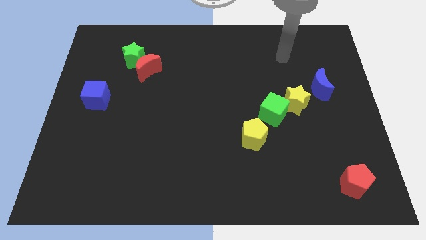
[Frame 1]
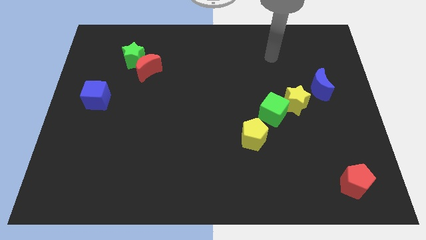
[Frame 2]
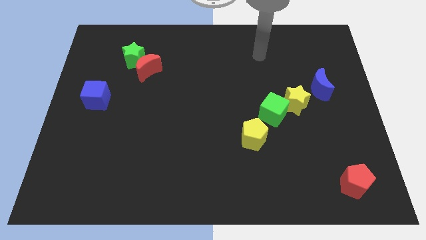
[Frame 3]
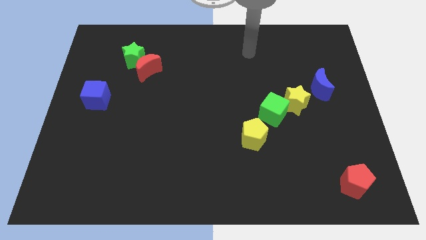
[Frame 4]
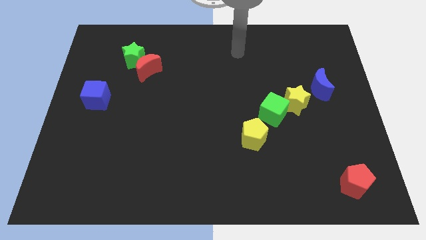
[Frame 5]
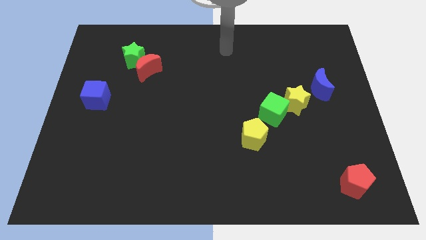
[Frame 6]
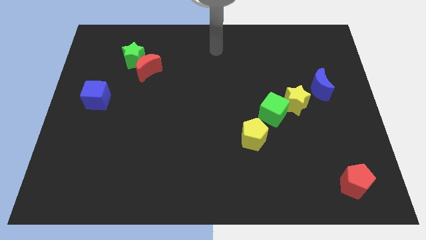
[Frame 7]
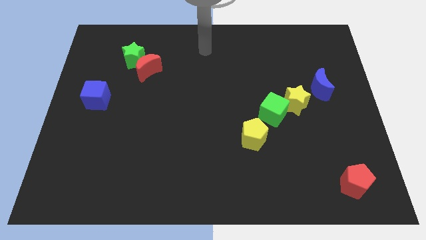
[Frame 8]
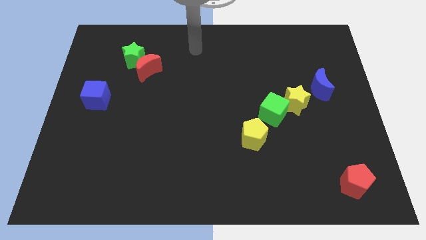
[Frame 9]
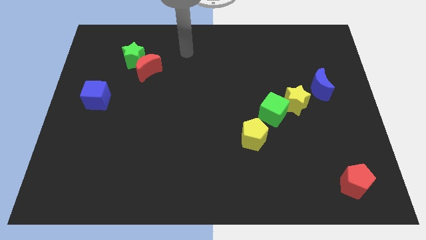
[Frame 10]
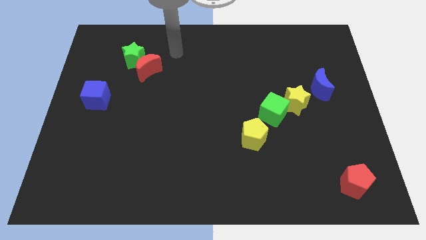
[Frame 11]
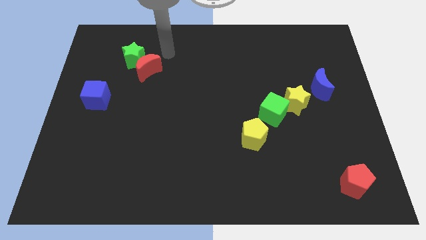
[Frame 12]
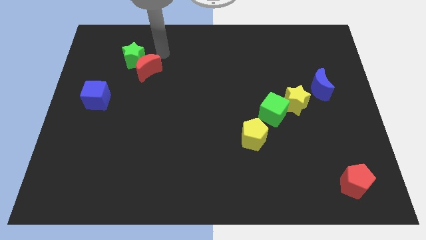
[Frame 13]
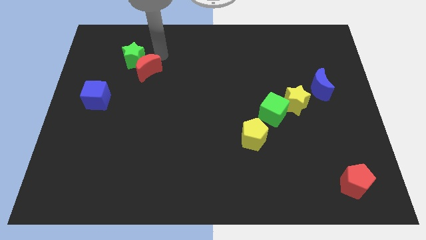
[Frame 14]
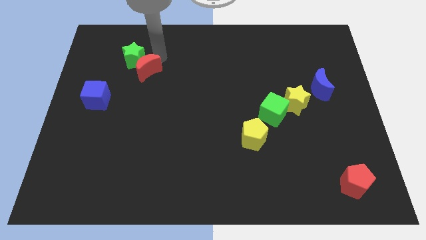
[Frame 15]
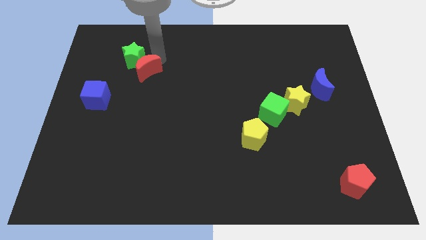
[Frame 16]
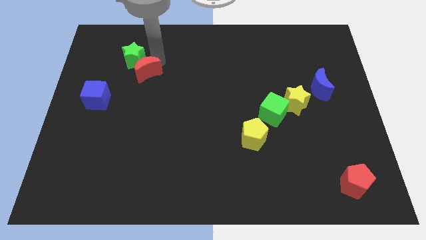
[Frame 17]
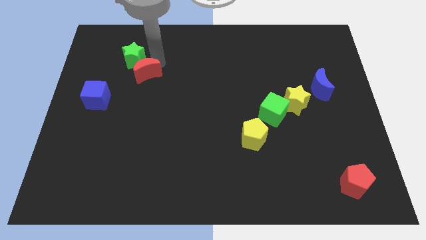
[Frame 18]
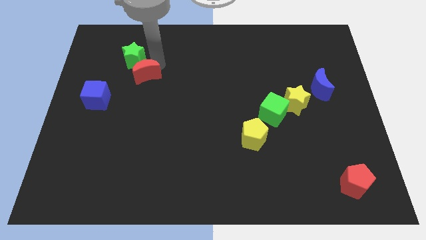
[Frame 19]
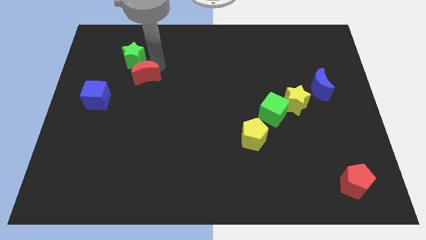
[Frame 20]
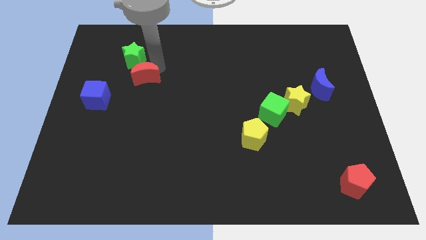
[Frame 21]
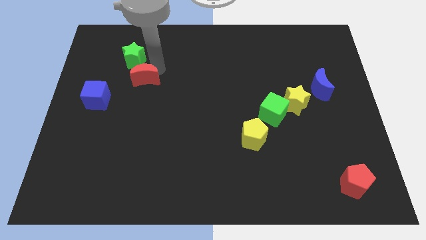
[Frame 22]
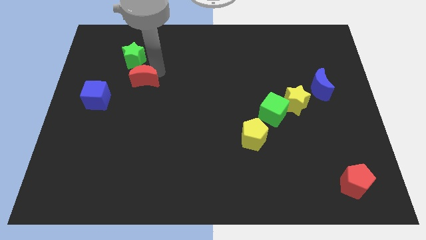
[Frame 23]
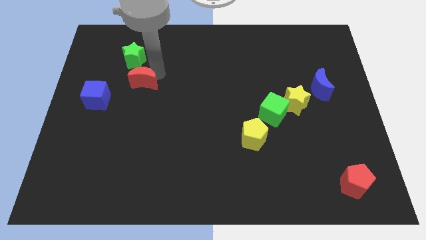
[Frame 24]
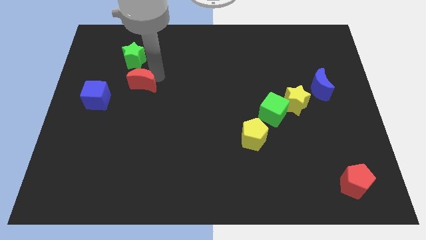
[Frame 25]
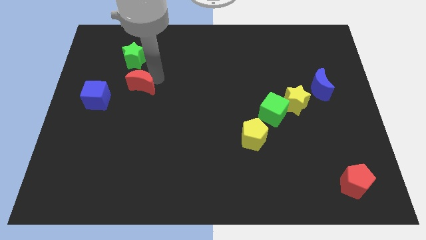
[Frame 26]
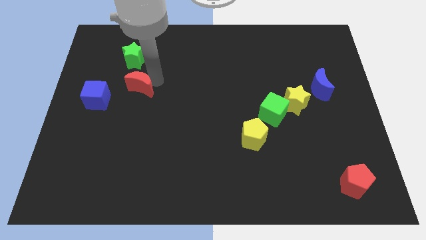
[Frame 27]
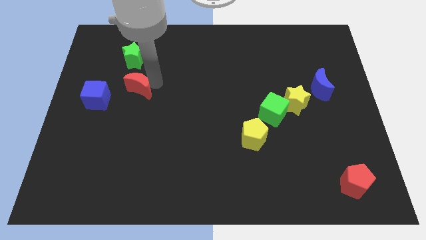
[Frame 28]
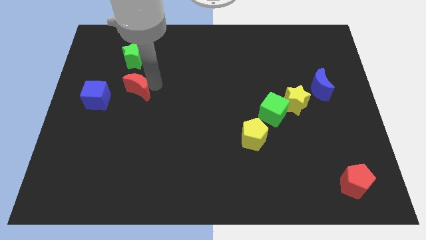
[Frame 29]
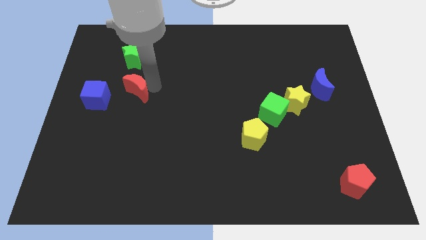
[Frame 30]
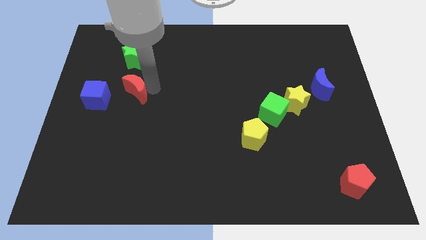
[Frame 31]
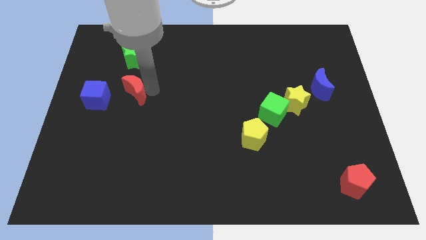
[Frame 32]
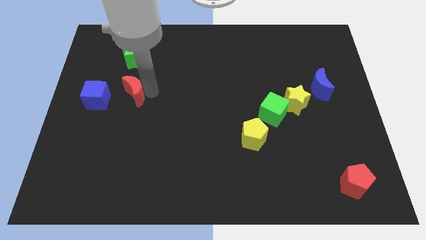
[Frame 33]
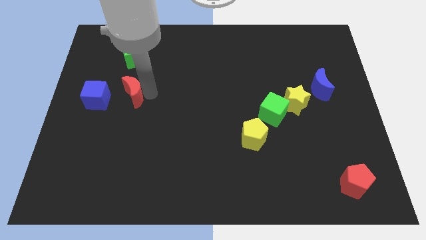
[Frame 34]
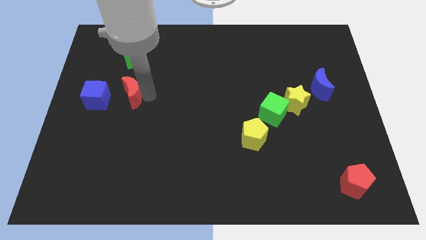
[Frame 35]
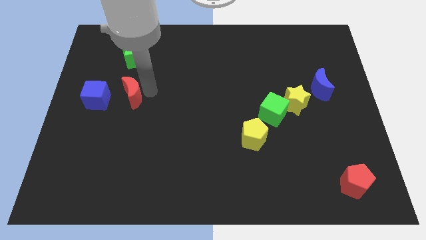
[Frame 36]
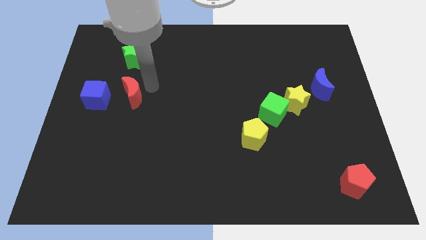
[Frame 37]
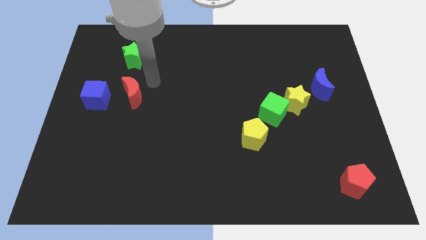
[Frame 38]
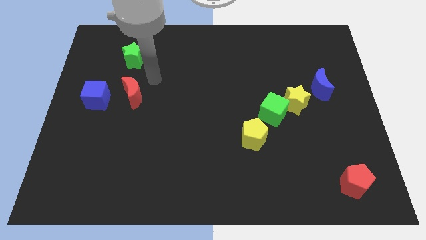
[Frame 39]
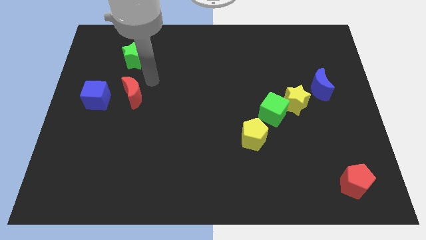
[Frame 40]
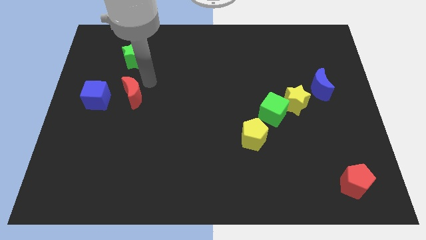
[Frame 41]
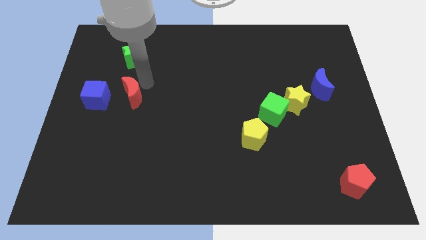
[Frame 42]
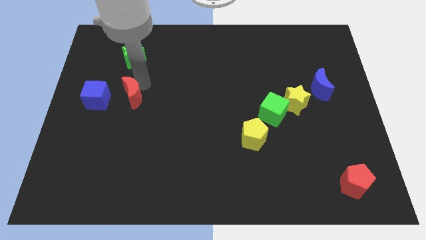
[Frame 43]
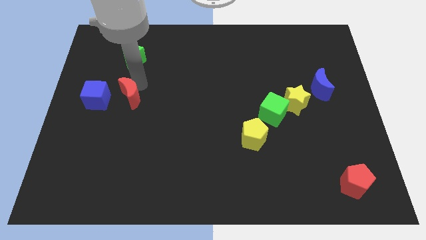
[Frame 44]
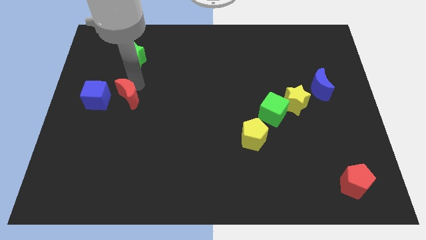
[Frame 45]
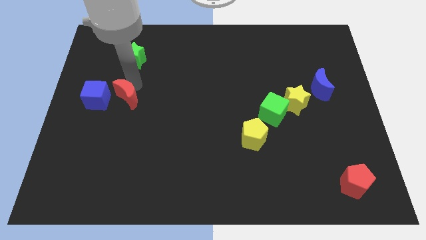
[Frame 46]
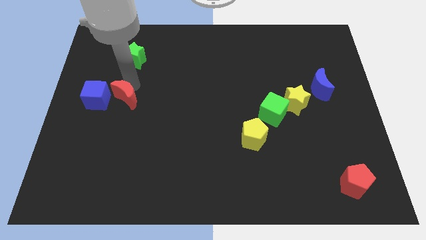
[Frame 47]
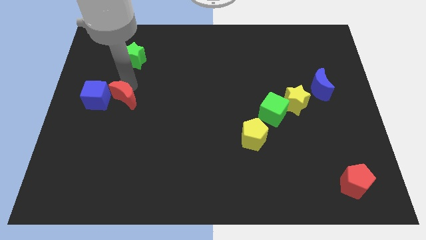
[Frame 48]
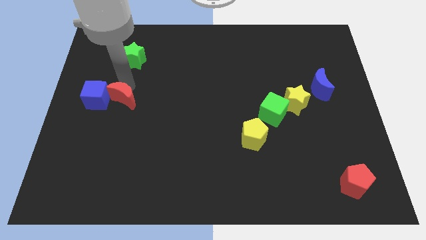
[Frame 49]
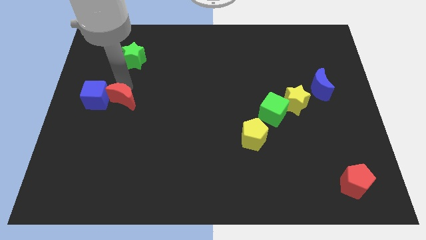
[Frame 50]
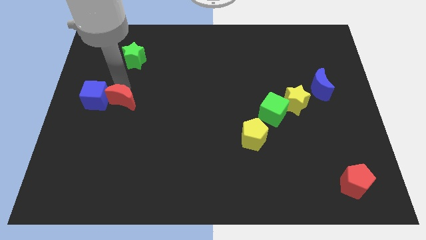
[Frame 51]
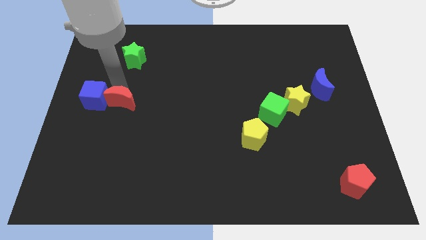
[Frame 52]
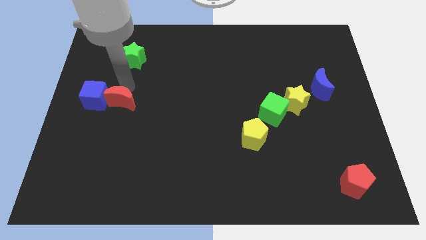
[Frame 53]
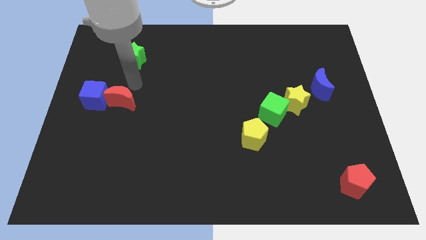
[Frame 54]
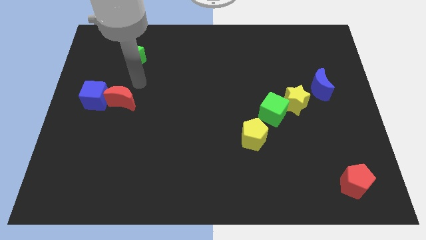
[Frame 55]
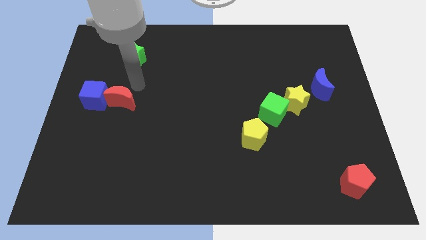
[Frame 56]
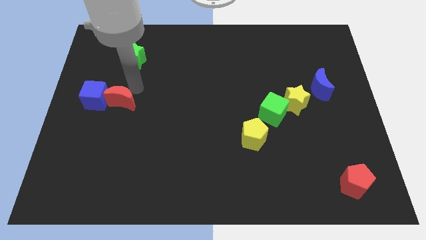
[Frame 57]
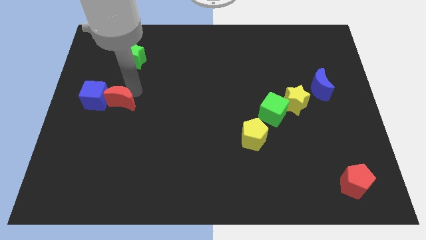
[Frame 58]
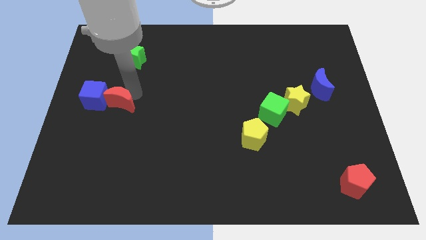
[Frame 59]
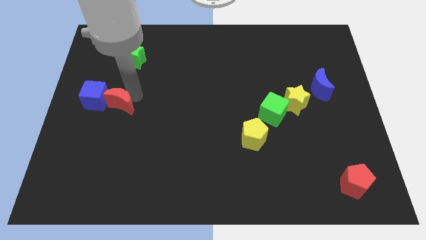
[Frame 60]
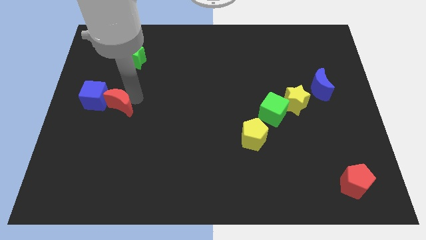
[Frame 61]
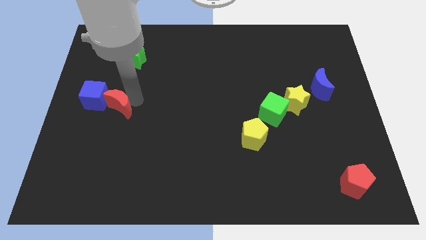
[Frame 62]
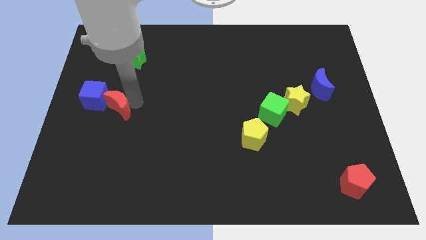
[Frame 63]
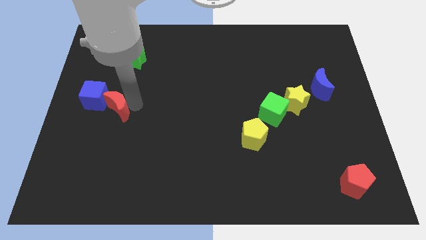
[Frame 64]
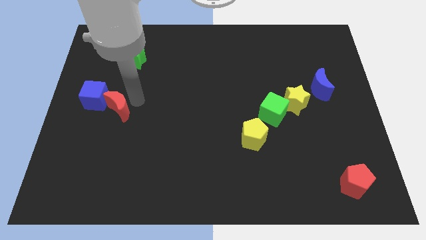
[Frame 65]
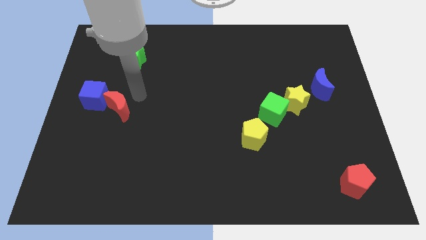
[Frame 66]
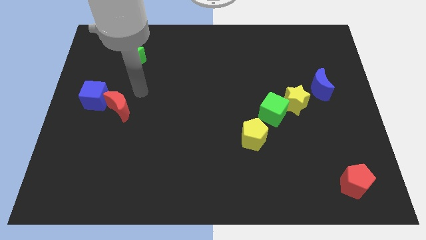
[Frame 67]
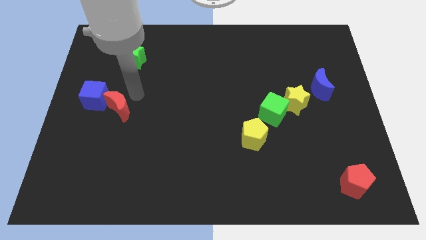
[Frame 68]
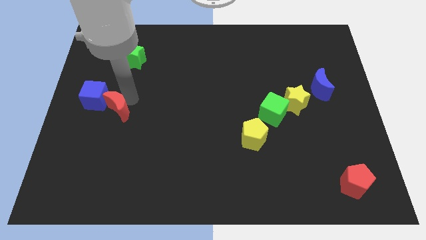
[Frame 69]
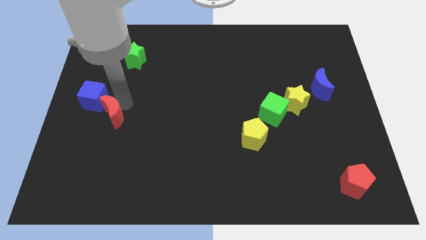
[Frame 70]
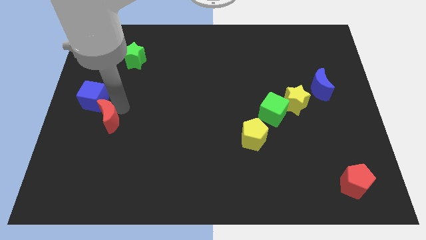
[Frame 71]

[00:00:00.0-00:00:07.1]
push the red moon to the bottom side of the blue cube

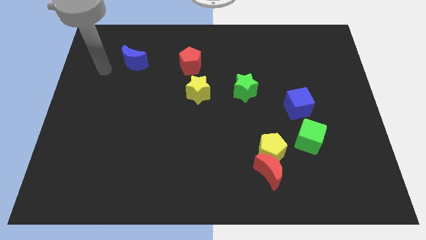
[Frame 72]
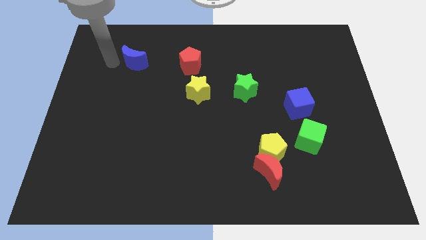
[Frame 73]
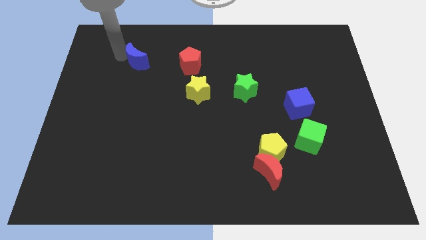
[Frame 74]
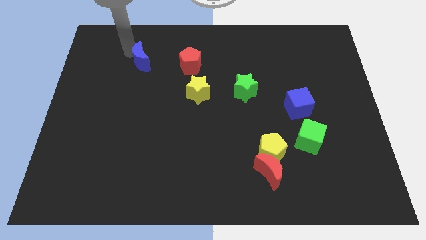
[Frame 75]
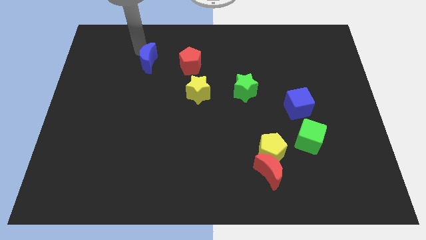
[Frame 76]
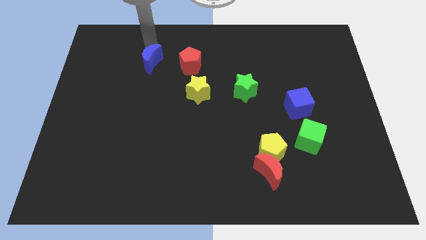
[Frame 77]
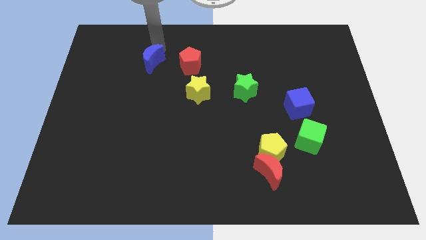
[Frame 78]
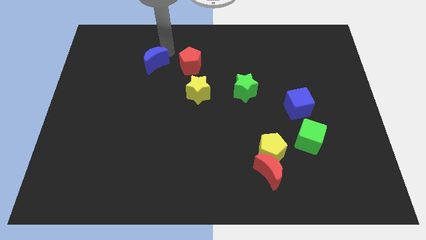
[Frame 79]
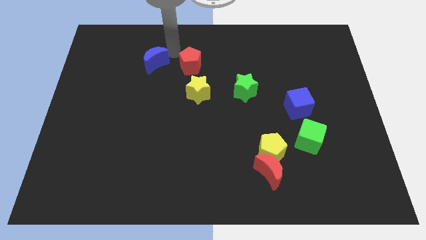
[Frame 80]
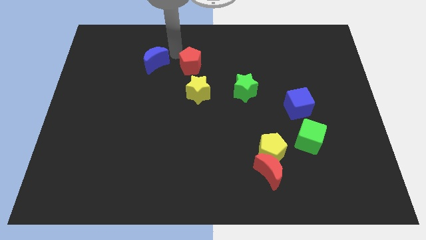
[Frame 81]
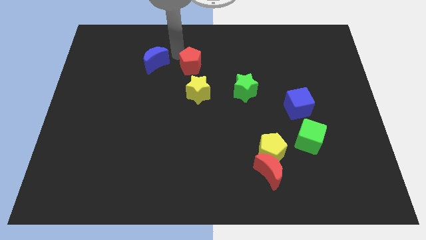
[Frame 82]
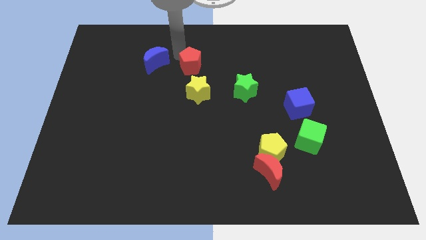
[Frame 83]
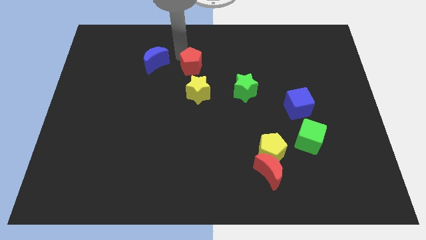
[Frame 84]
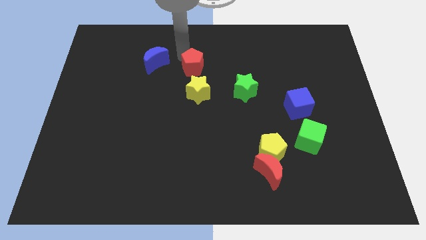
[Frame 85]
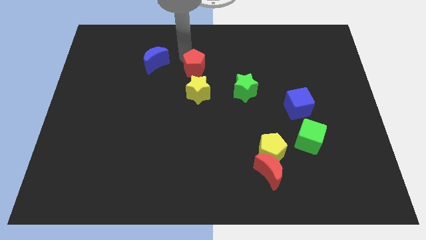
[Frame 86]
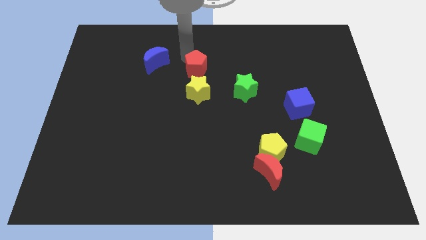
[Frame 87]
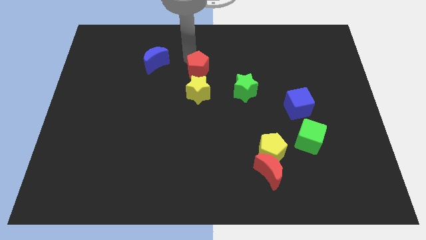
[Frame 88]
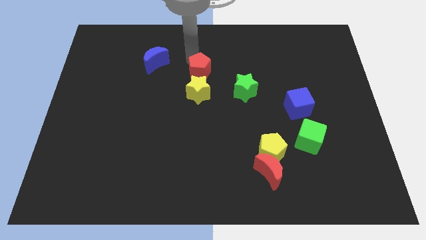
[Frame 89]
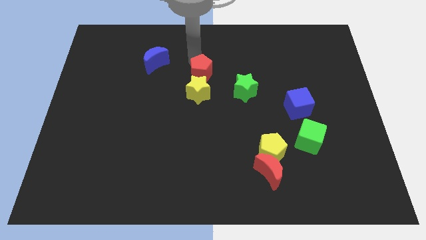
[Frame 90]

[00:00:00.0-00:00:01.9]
move the red pentagon to the top right side of the yellow star
